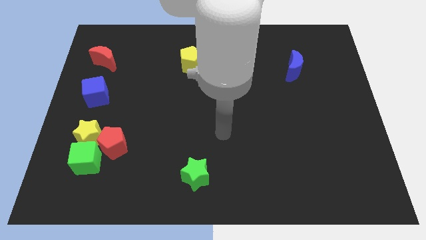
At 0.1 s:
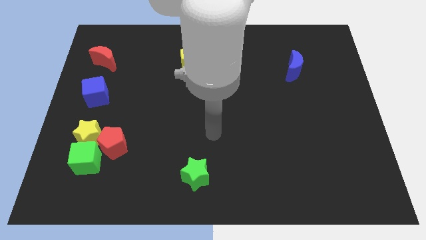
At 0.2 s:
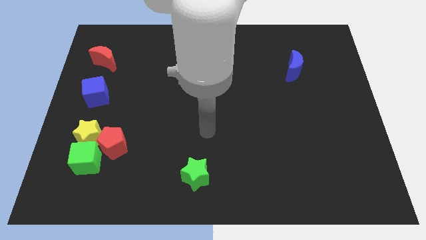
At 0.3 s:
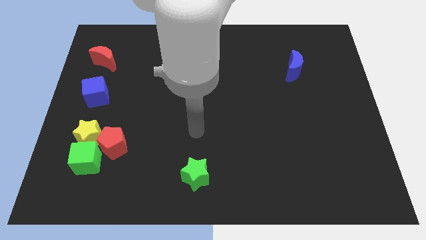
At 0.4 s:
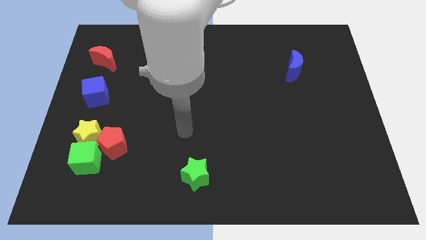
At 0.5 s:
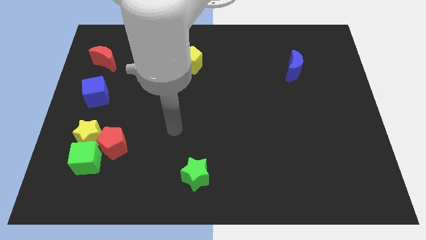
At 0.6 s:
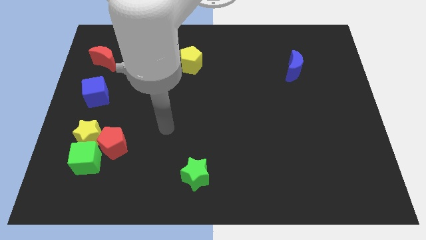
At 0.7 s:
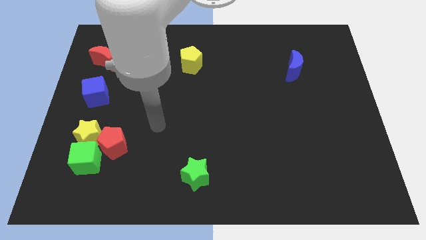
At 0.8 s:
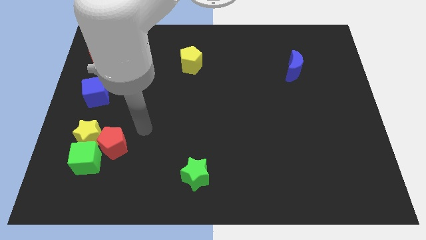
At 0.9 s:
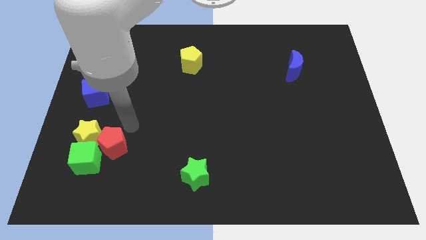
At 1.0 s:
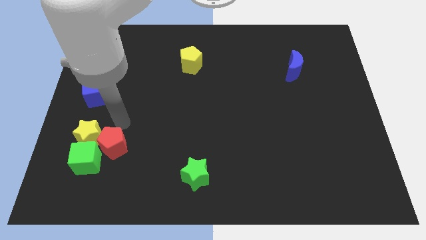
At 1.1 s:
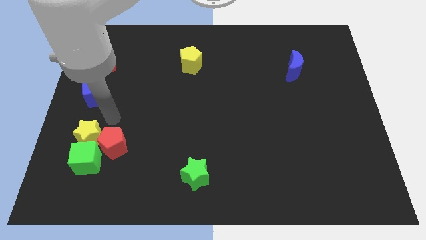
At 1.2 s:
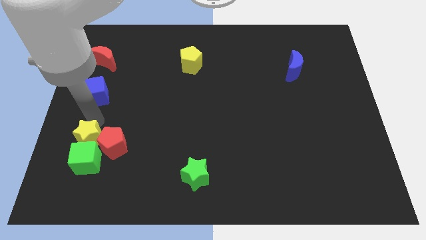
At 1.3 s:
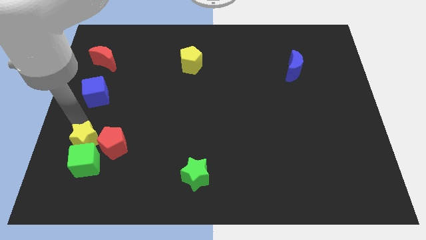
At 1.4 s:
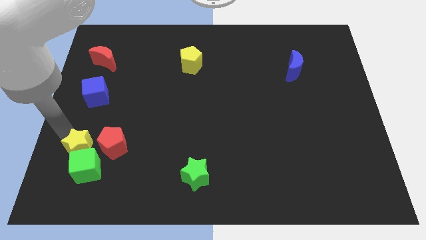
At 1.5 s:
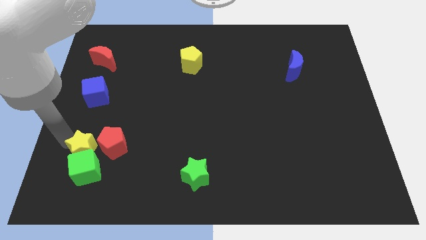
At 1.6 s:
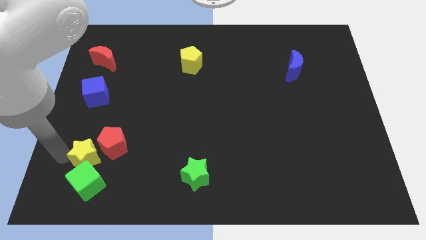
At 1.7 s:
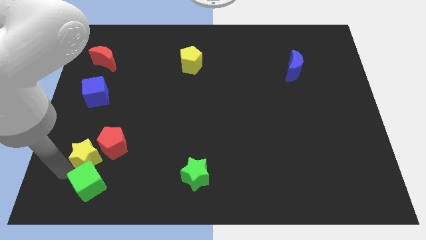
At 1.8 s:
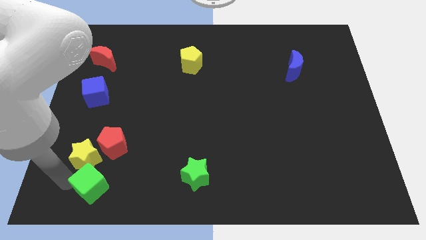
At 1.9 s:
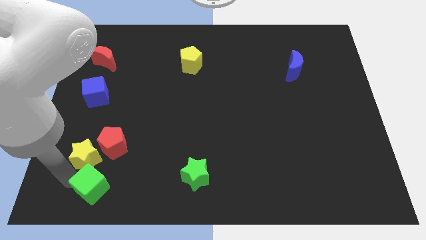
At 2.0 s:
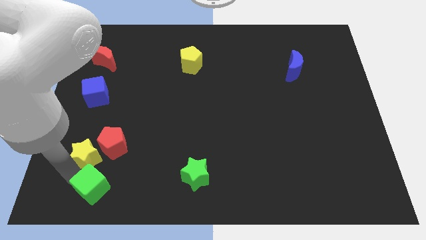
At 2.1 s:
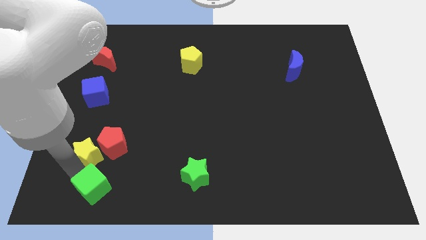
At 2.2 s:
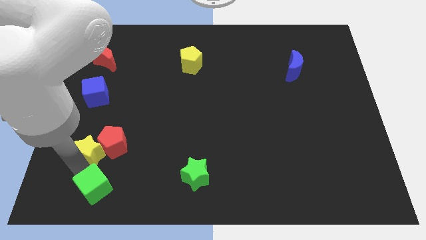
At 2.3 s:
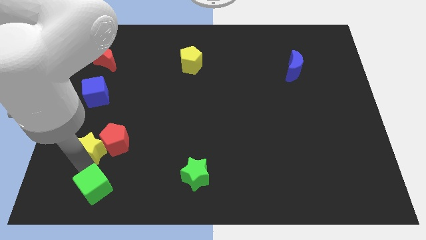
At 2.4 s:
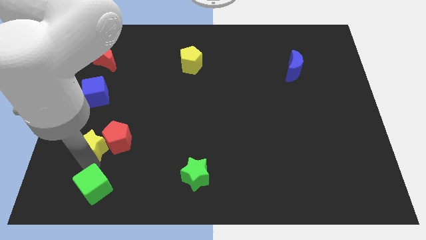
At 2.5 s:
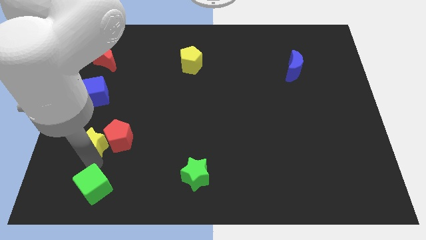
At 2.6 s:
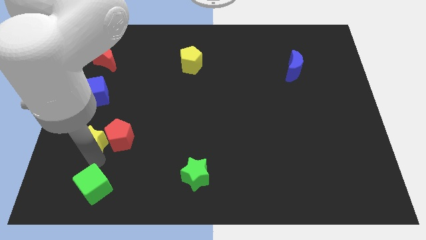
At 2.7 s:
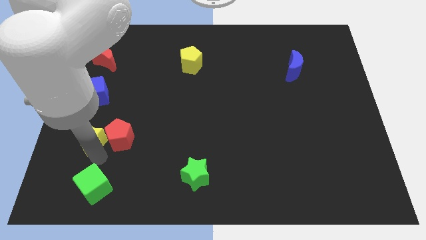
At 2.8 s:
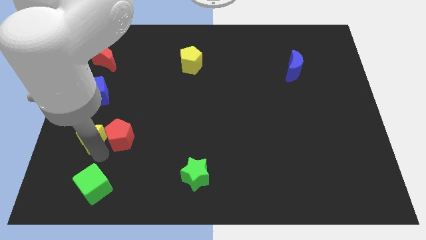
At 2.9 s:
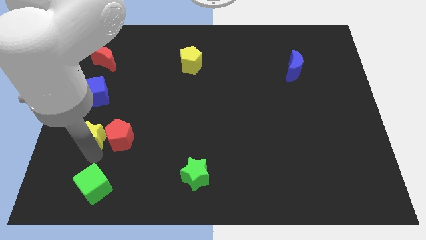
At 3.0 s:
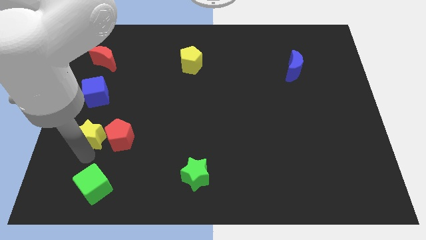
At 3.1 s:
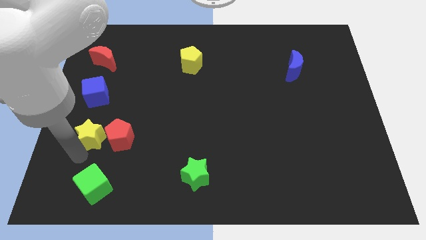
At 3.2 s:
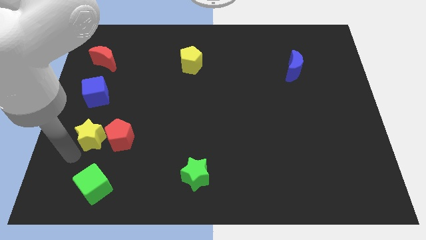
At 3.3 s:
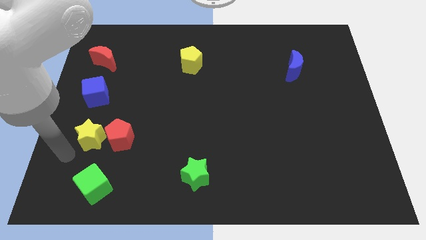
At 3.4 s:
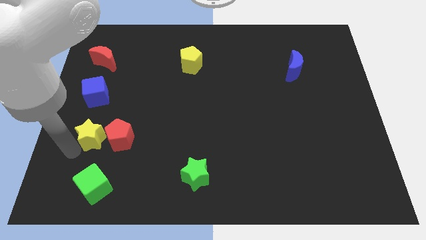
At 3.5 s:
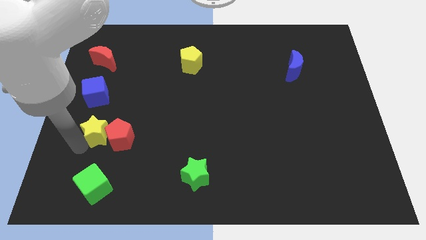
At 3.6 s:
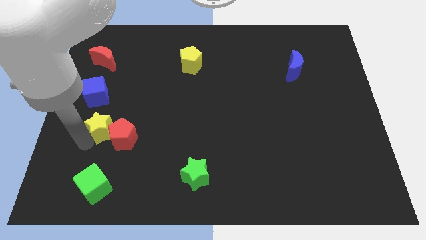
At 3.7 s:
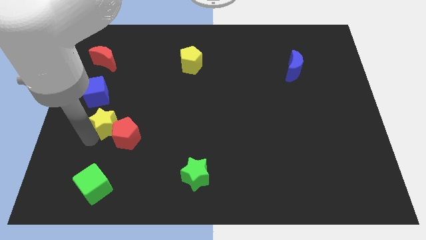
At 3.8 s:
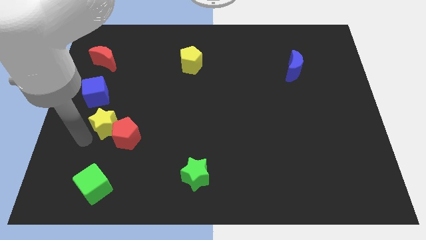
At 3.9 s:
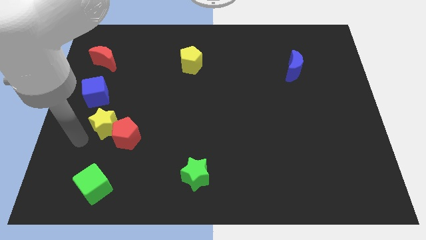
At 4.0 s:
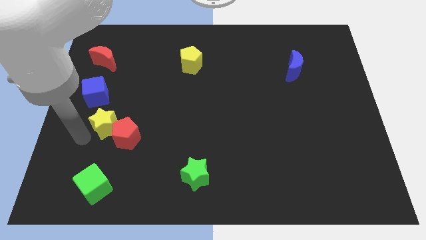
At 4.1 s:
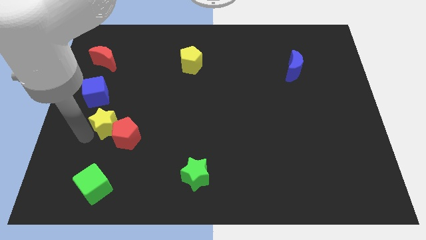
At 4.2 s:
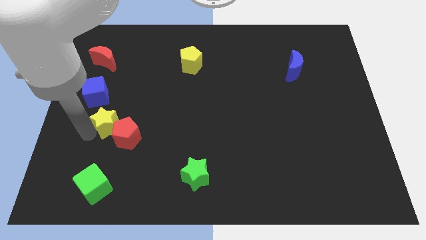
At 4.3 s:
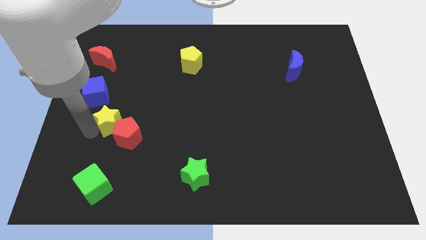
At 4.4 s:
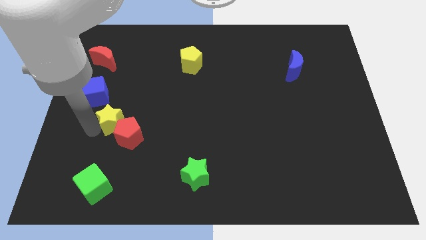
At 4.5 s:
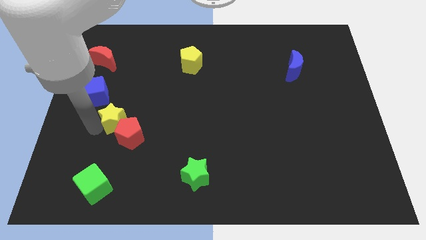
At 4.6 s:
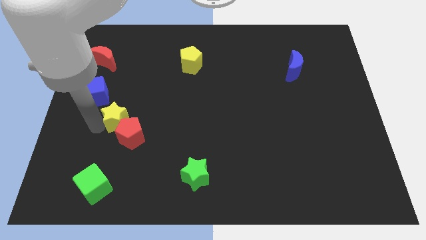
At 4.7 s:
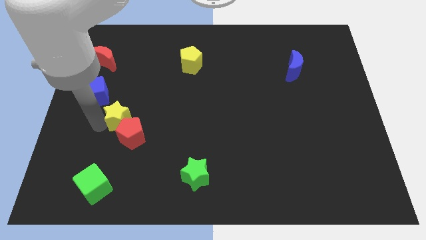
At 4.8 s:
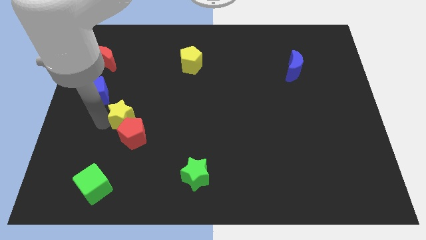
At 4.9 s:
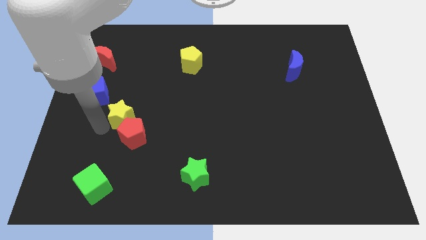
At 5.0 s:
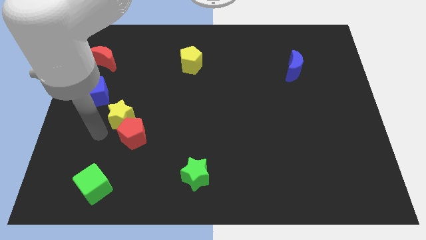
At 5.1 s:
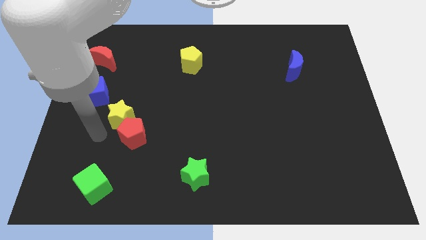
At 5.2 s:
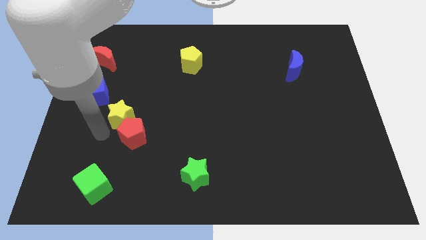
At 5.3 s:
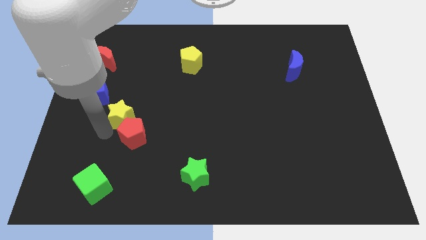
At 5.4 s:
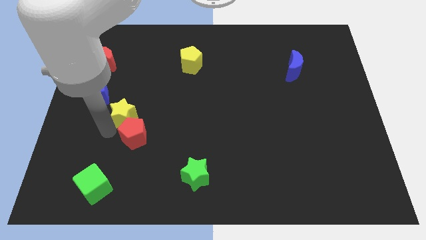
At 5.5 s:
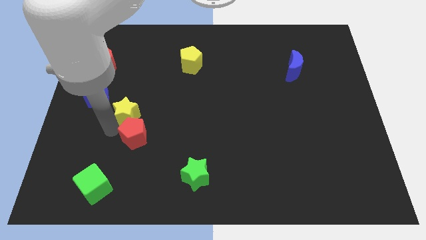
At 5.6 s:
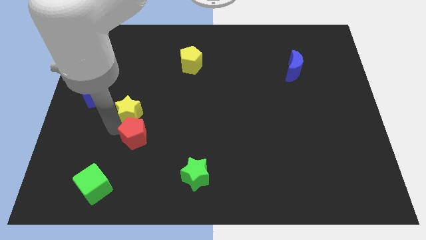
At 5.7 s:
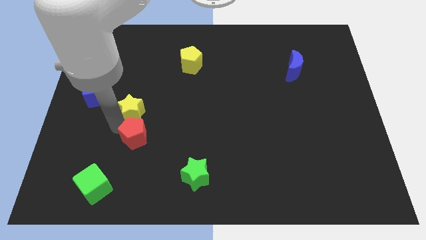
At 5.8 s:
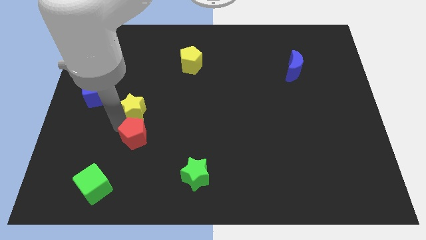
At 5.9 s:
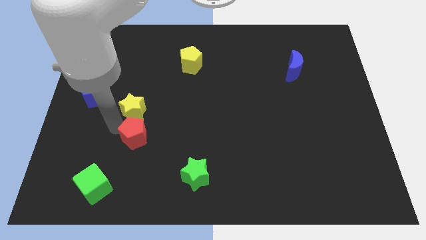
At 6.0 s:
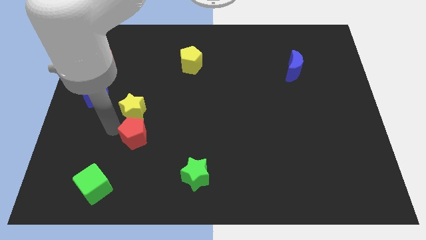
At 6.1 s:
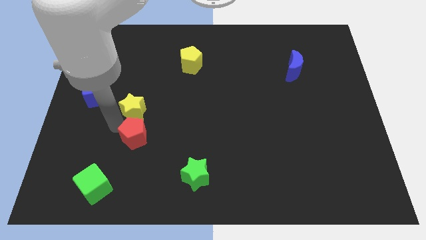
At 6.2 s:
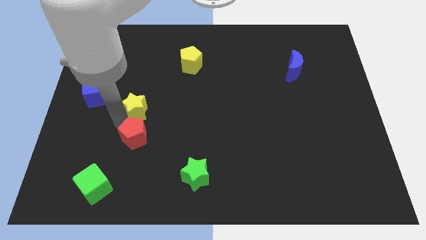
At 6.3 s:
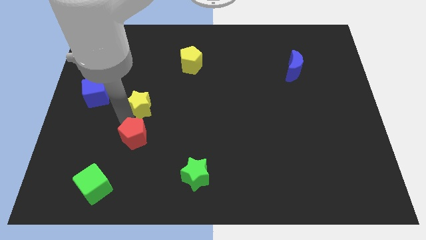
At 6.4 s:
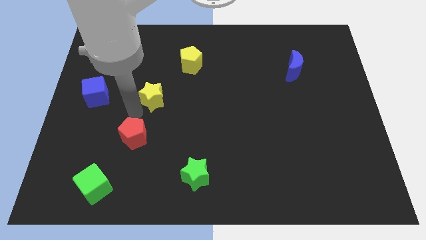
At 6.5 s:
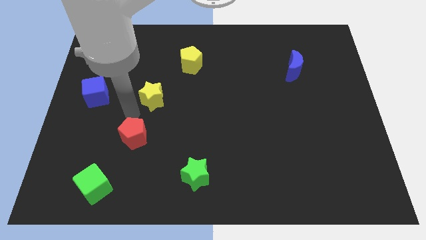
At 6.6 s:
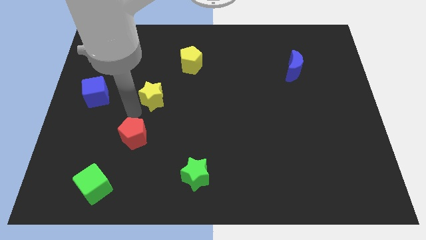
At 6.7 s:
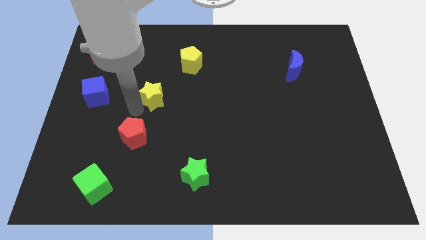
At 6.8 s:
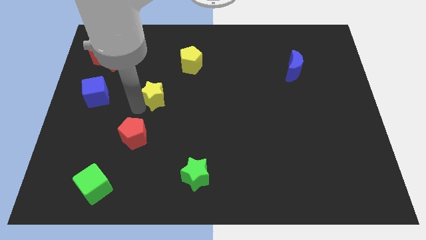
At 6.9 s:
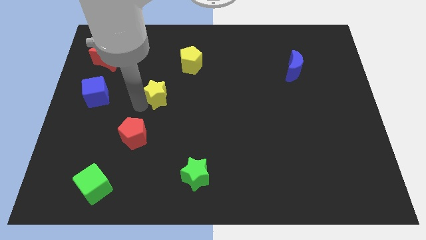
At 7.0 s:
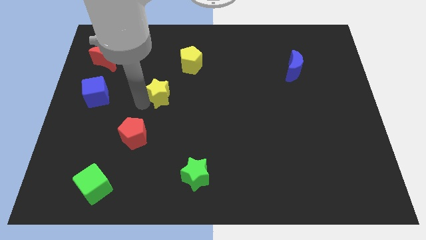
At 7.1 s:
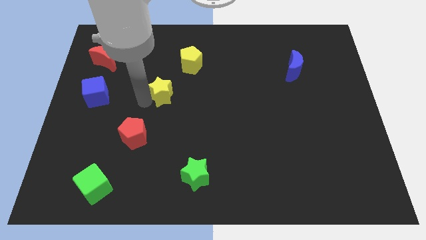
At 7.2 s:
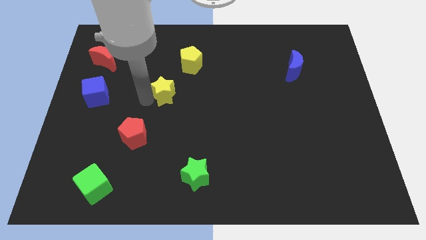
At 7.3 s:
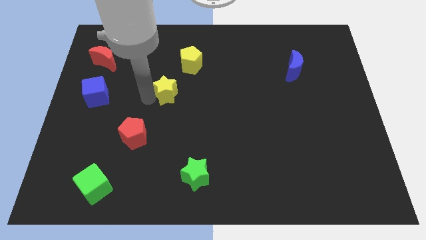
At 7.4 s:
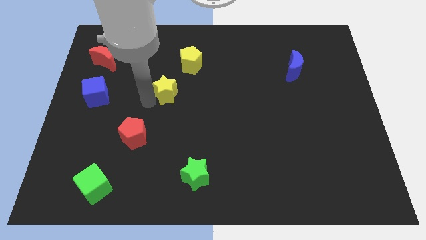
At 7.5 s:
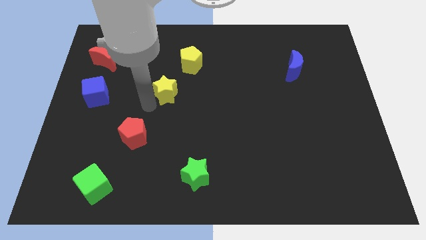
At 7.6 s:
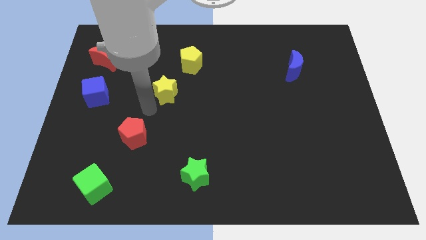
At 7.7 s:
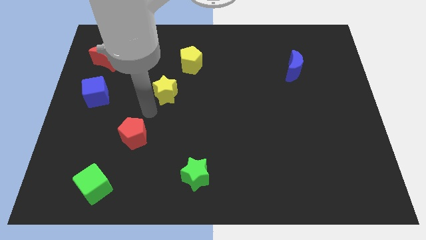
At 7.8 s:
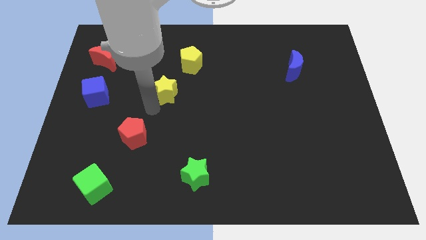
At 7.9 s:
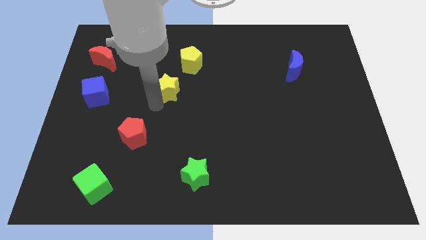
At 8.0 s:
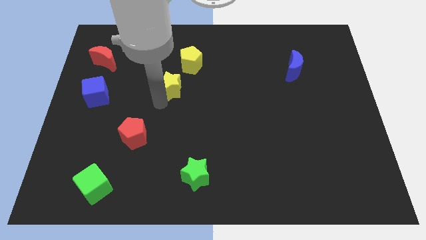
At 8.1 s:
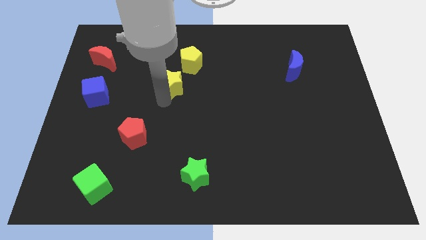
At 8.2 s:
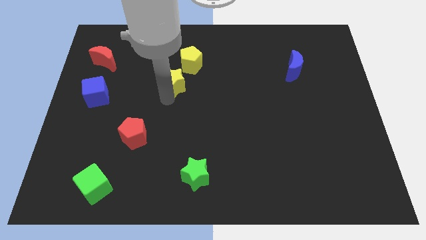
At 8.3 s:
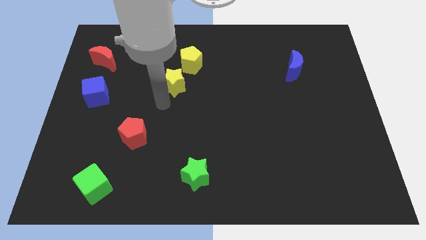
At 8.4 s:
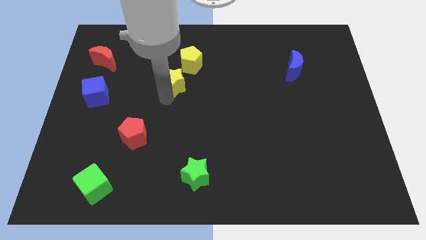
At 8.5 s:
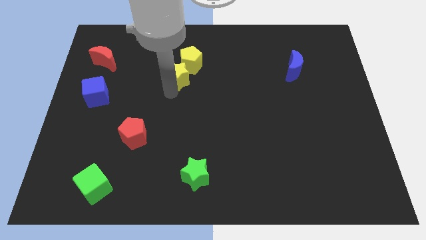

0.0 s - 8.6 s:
put the yellow star to the yellow pentagon
